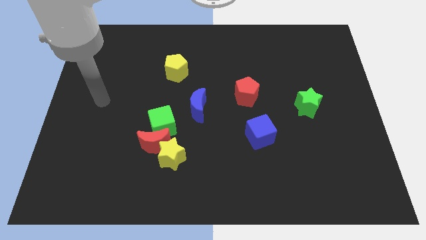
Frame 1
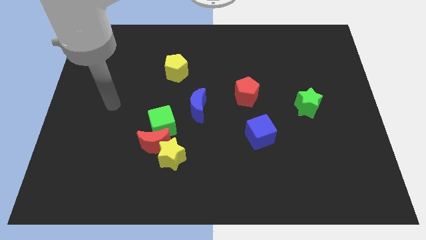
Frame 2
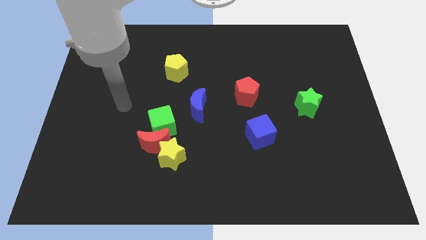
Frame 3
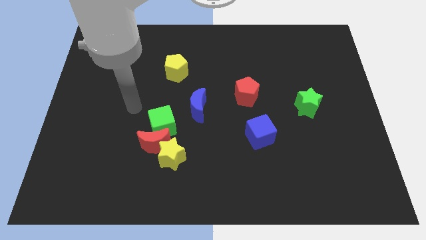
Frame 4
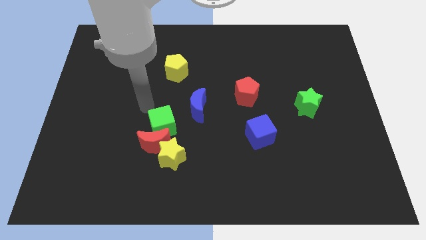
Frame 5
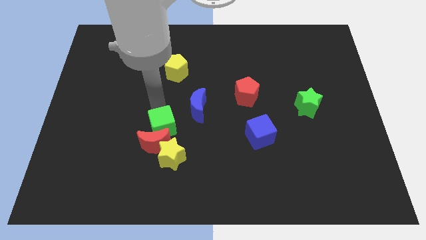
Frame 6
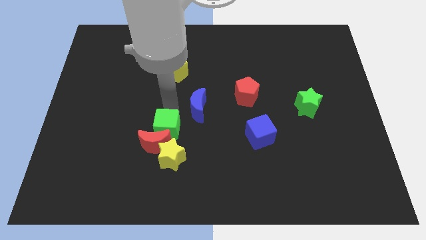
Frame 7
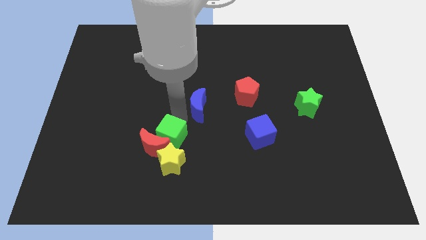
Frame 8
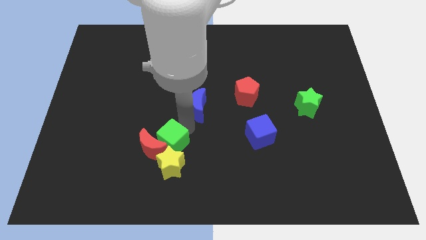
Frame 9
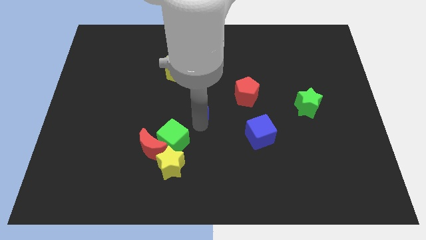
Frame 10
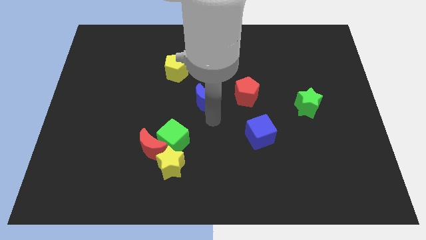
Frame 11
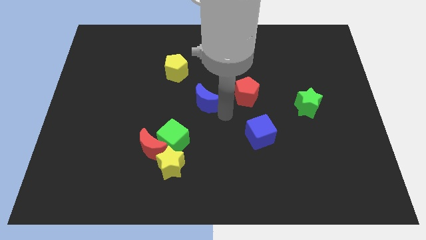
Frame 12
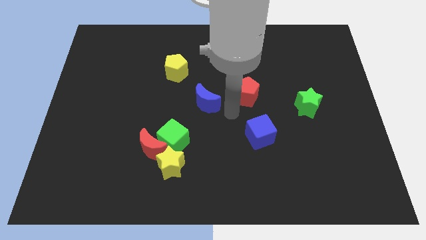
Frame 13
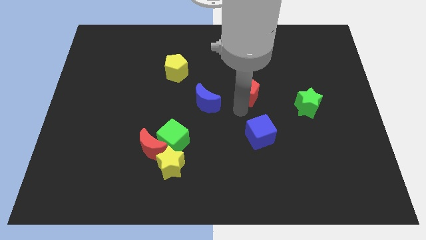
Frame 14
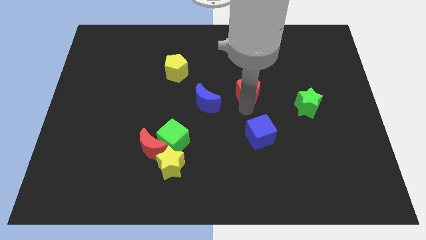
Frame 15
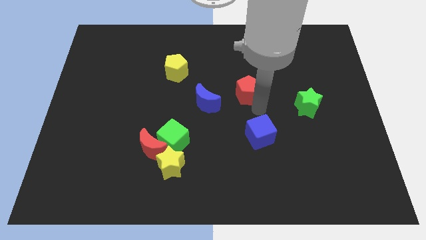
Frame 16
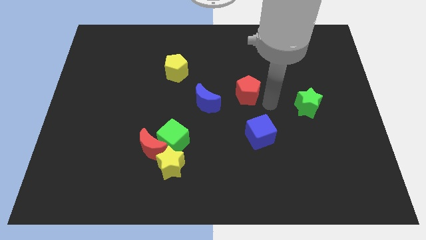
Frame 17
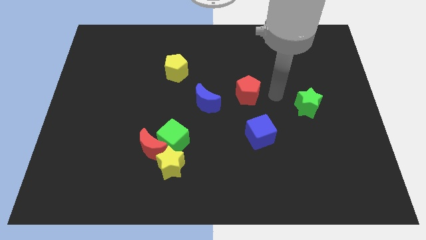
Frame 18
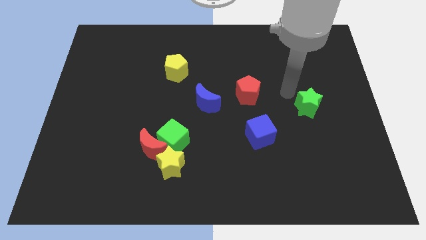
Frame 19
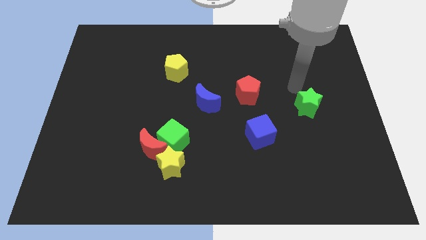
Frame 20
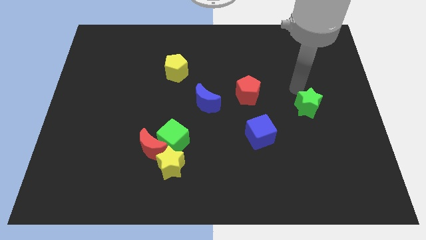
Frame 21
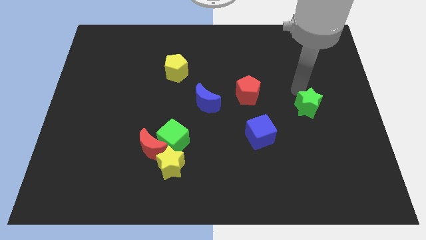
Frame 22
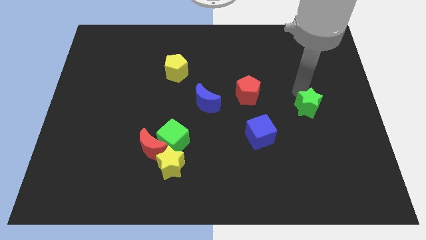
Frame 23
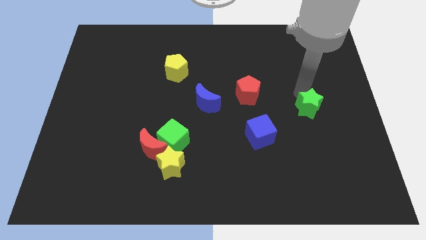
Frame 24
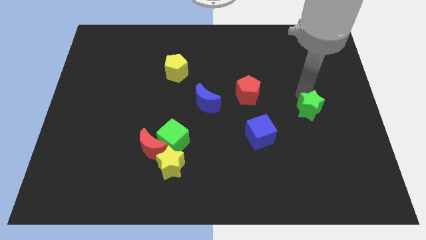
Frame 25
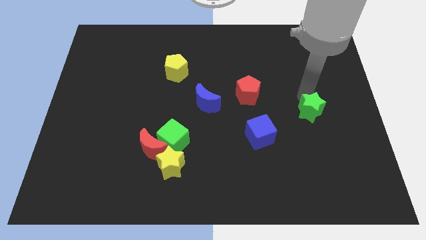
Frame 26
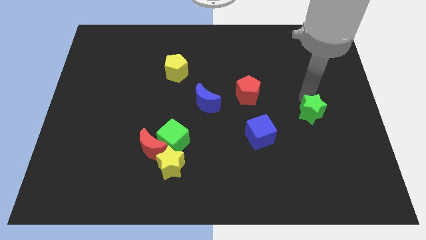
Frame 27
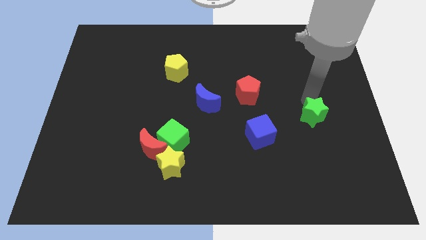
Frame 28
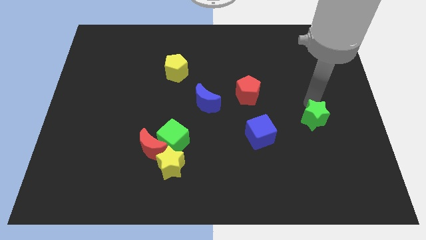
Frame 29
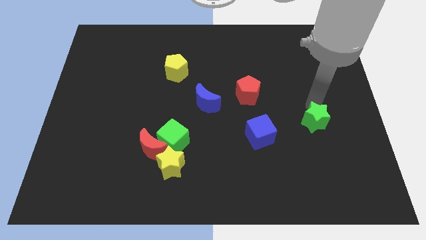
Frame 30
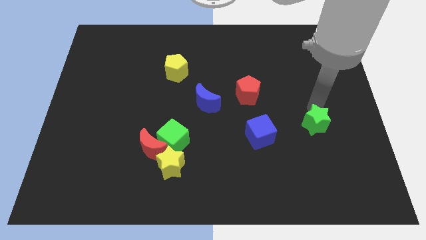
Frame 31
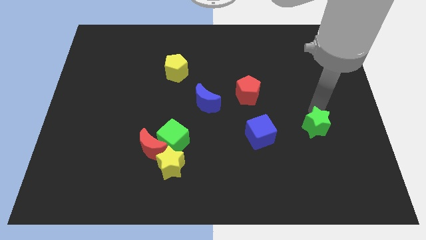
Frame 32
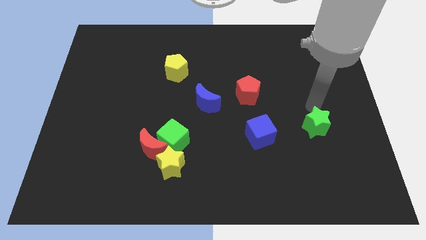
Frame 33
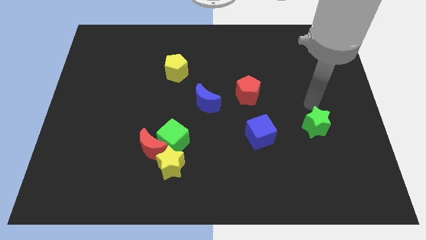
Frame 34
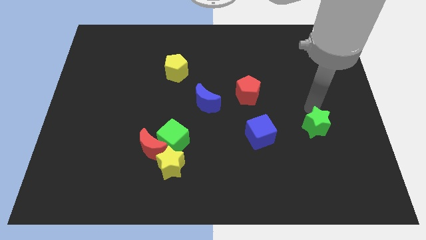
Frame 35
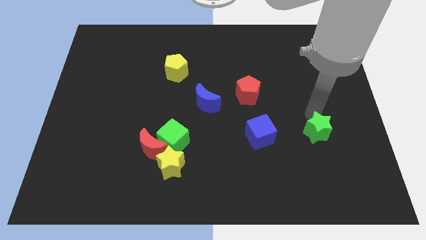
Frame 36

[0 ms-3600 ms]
move the green star somewhat down

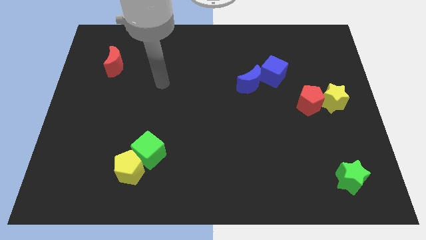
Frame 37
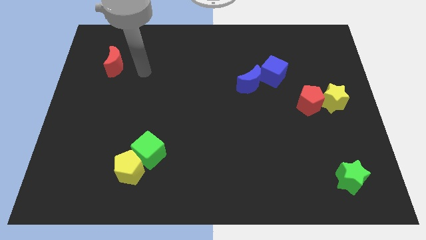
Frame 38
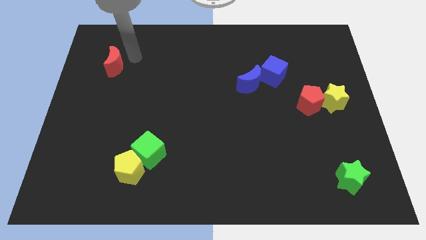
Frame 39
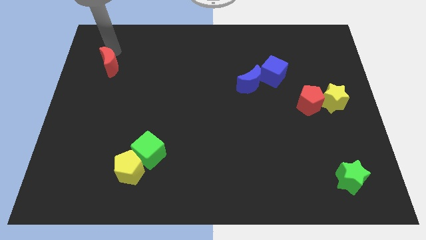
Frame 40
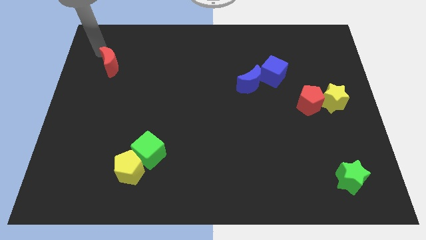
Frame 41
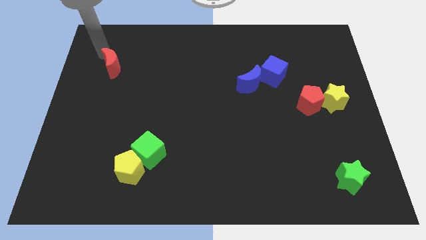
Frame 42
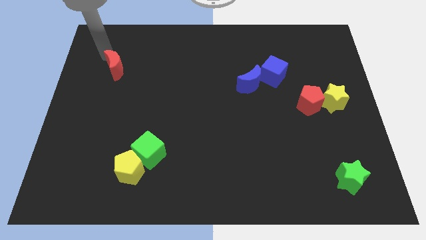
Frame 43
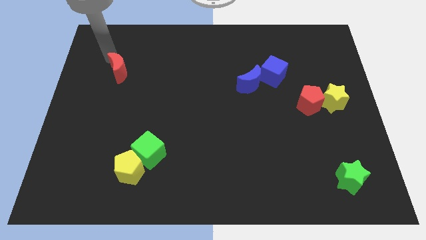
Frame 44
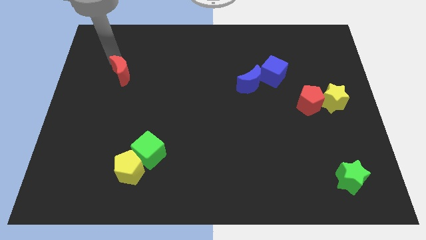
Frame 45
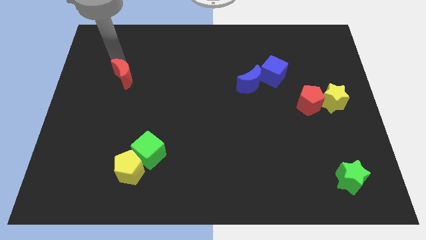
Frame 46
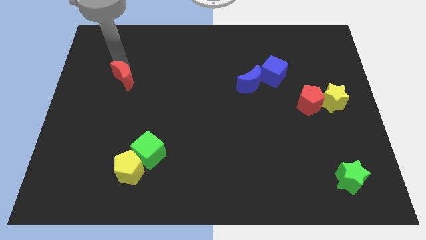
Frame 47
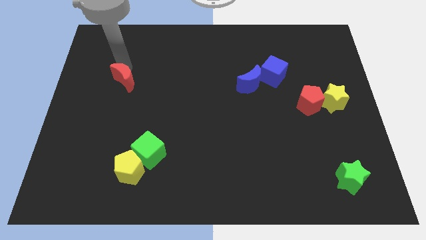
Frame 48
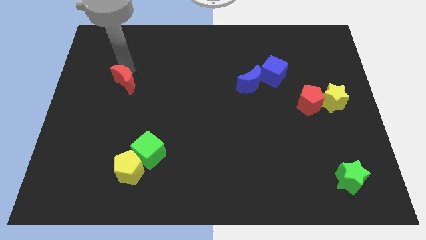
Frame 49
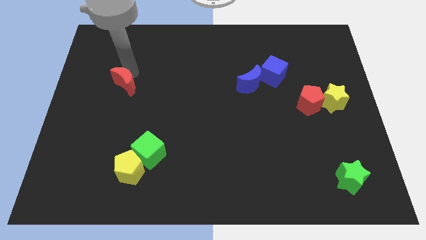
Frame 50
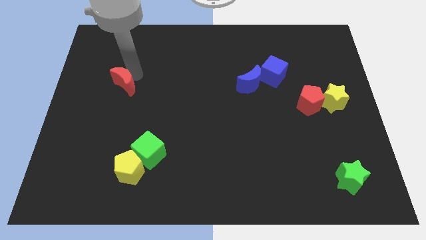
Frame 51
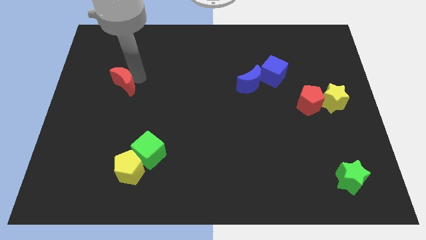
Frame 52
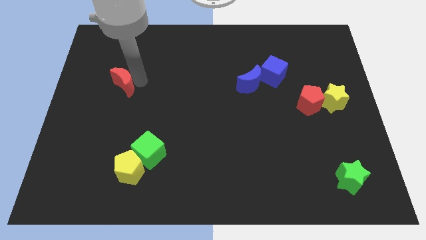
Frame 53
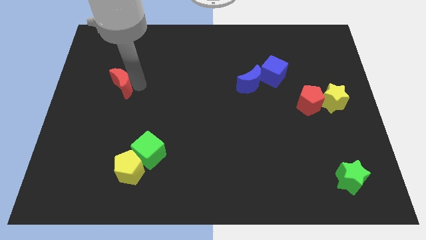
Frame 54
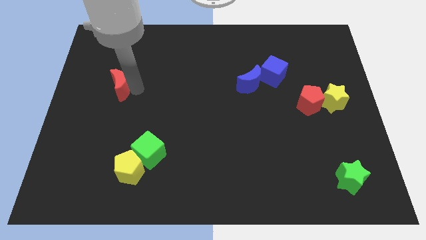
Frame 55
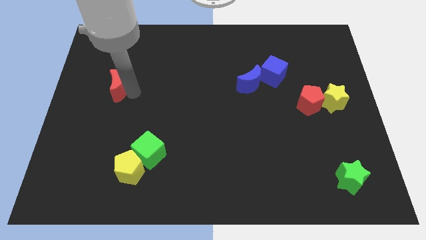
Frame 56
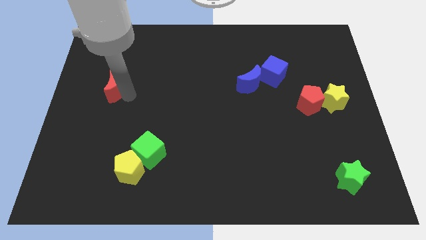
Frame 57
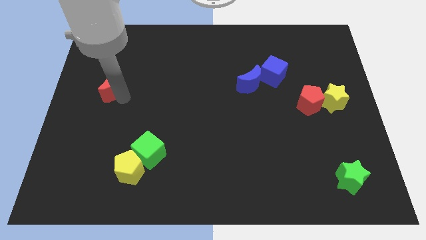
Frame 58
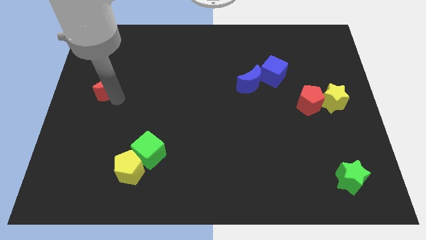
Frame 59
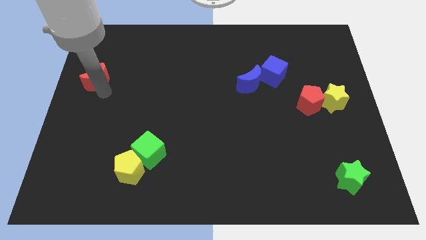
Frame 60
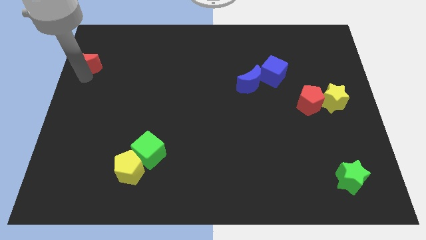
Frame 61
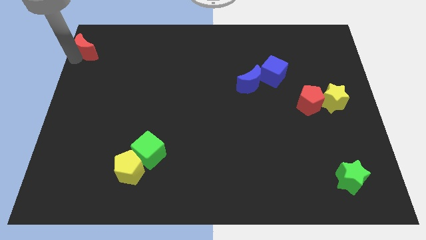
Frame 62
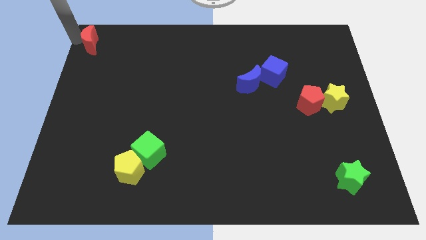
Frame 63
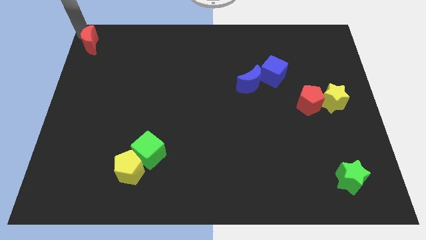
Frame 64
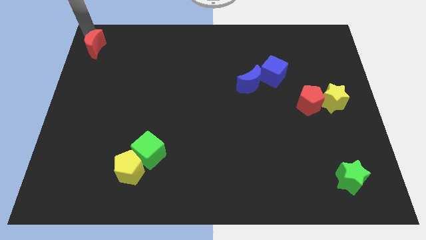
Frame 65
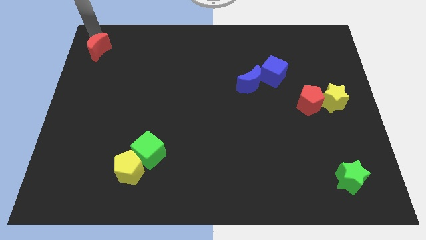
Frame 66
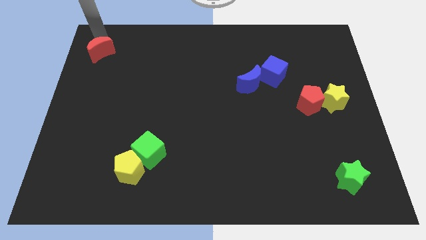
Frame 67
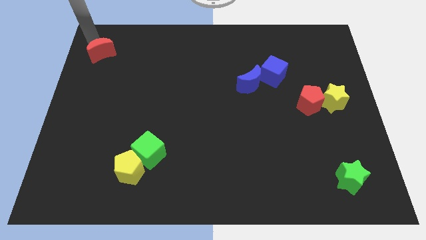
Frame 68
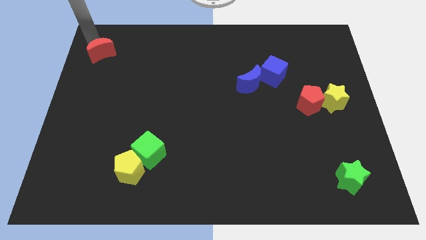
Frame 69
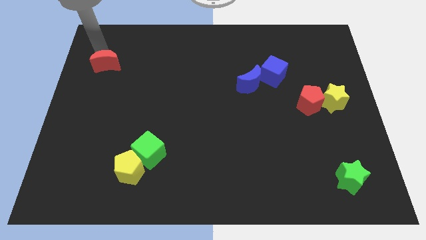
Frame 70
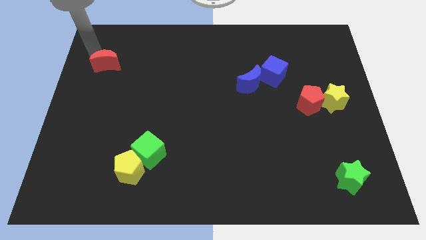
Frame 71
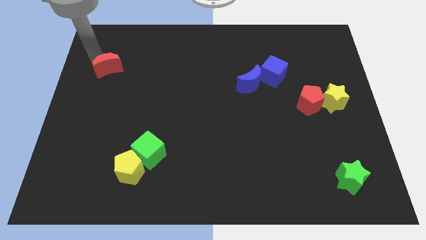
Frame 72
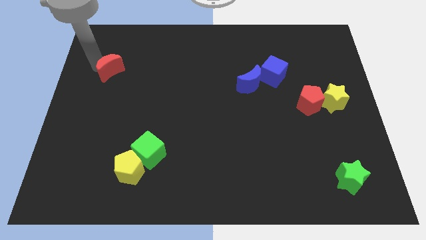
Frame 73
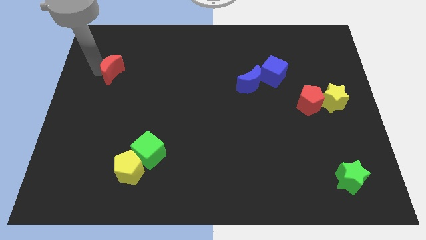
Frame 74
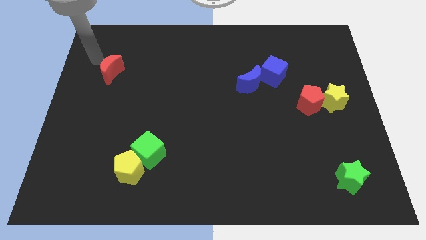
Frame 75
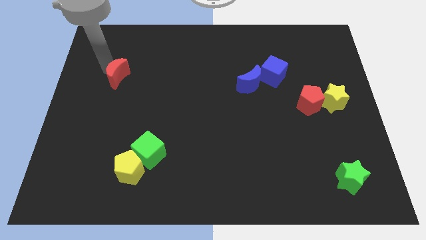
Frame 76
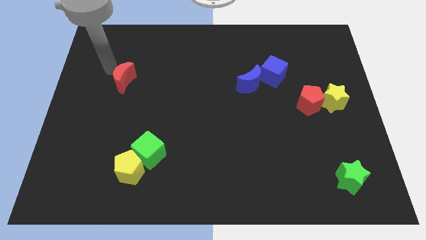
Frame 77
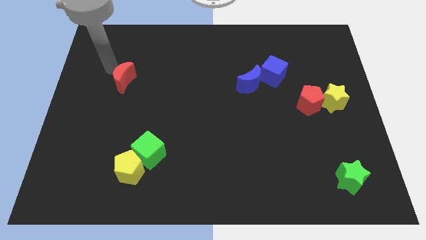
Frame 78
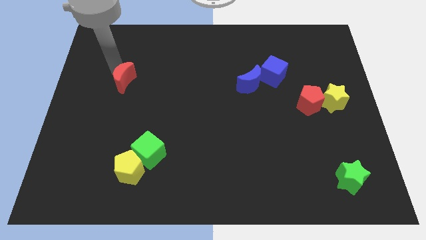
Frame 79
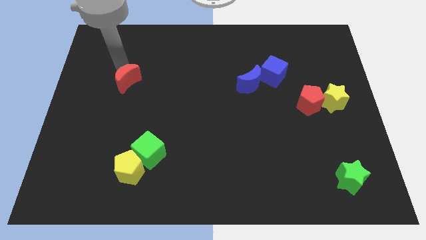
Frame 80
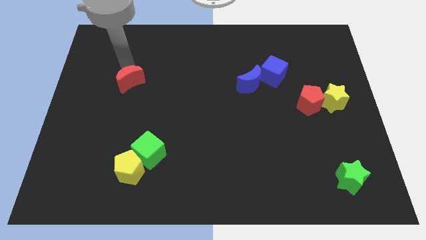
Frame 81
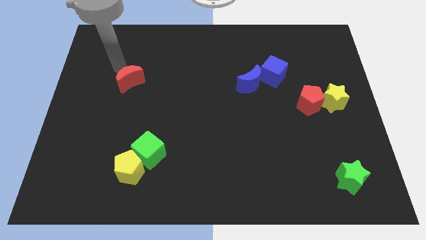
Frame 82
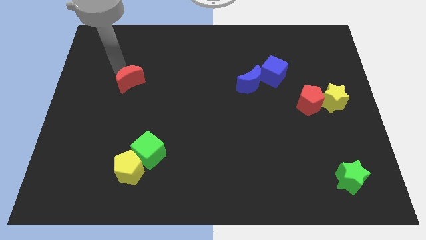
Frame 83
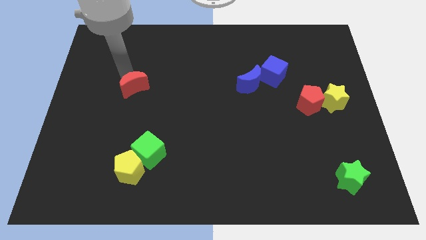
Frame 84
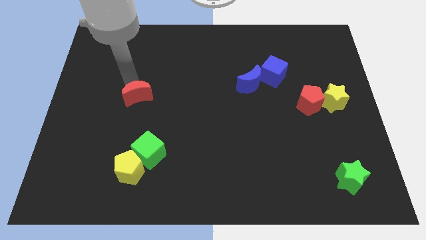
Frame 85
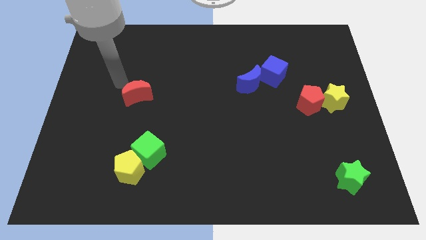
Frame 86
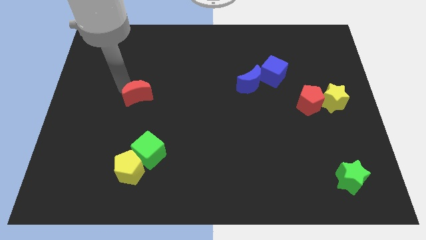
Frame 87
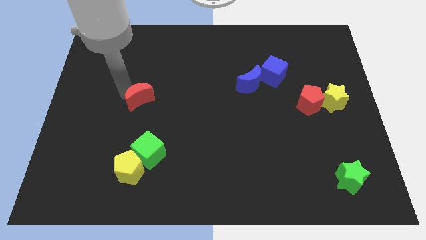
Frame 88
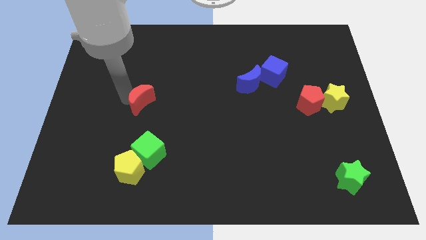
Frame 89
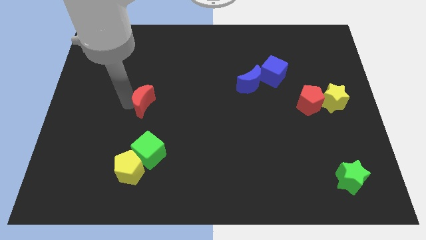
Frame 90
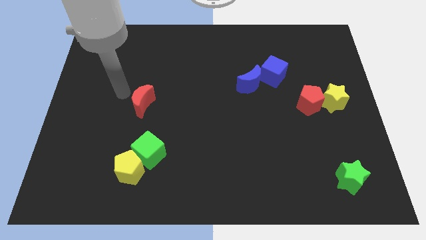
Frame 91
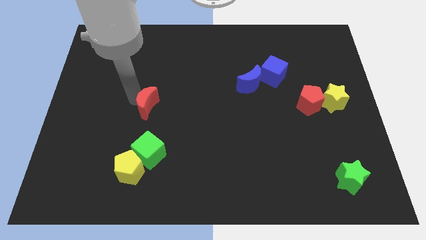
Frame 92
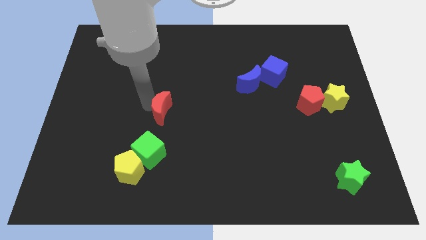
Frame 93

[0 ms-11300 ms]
move the red moon down and right diagonally
